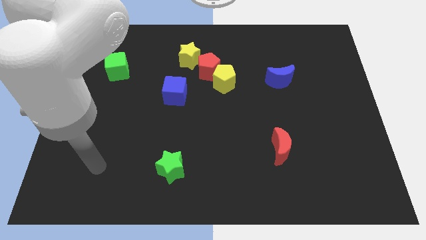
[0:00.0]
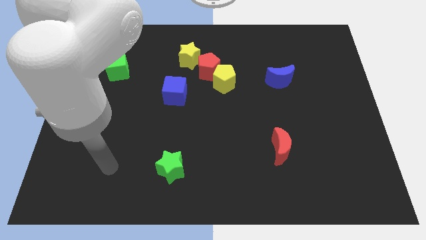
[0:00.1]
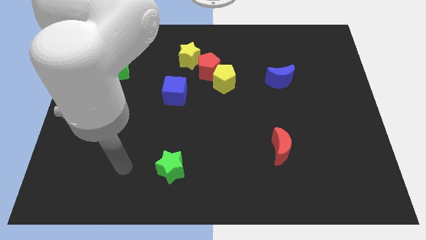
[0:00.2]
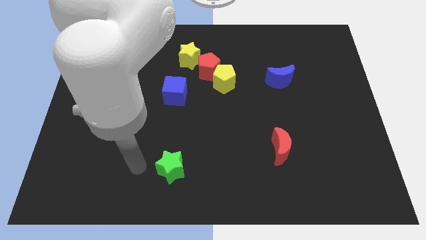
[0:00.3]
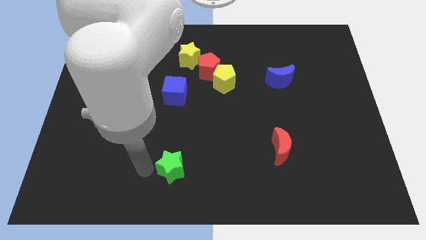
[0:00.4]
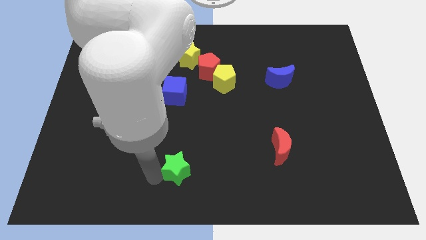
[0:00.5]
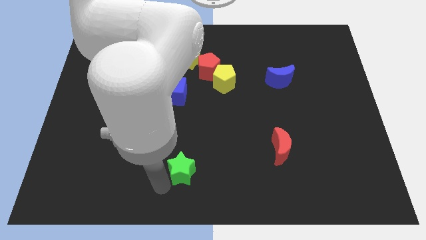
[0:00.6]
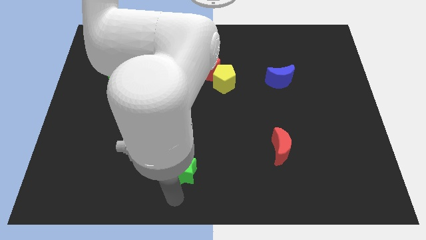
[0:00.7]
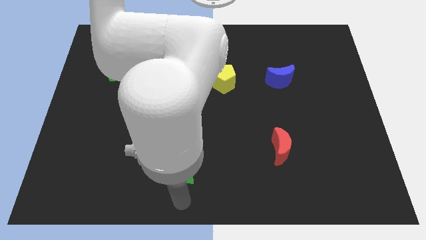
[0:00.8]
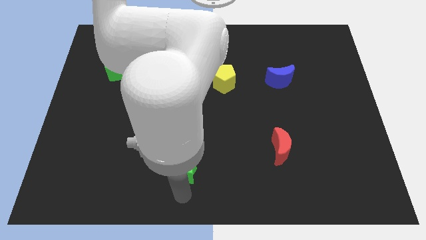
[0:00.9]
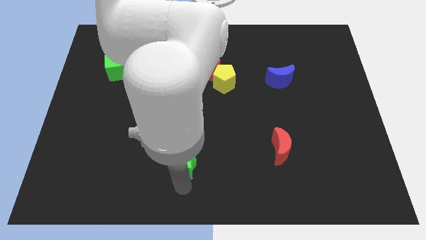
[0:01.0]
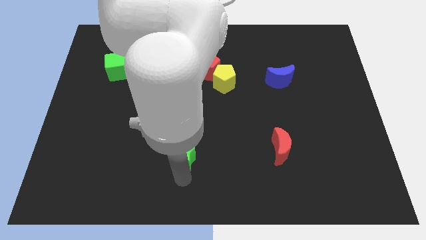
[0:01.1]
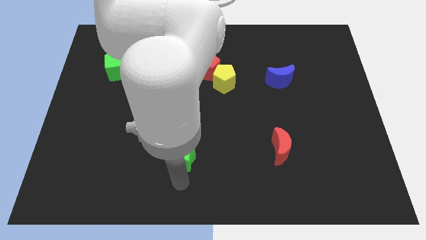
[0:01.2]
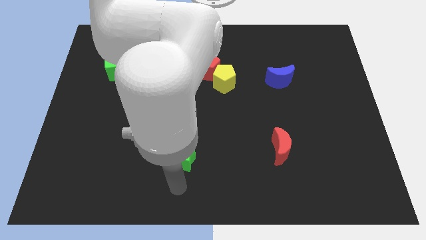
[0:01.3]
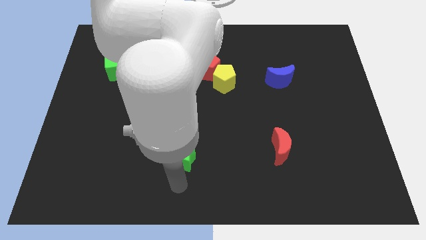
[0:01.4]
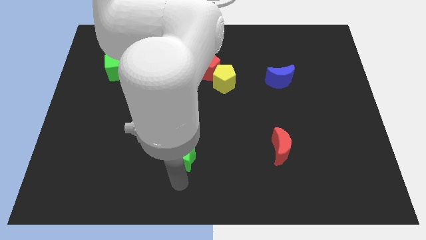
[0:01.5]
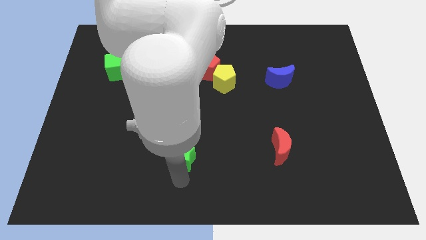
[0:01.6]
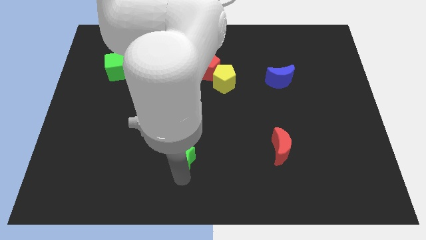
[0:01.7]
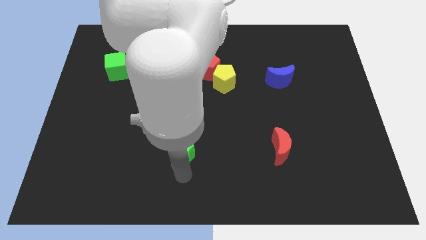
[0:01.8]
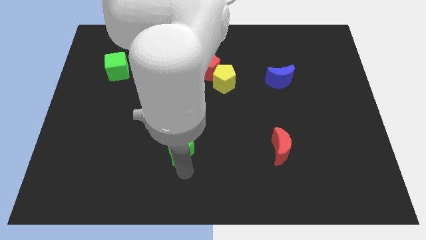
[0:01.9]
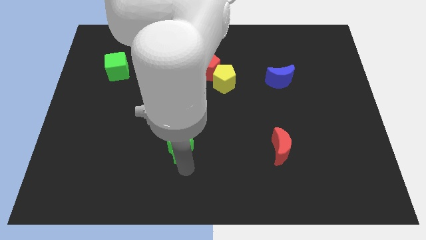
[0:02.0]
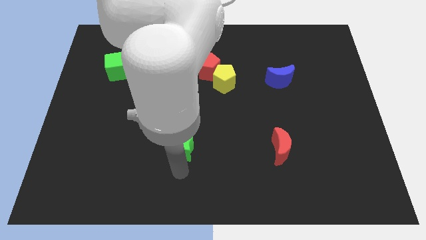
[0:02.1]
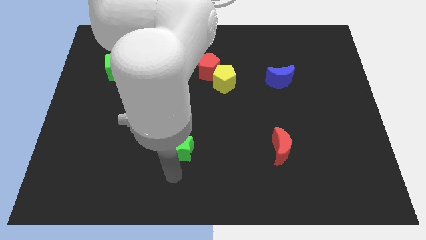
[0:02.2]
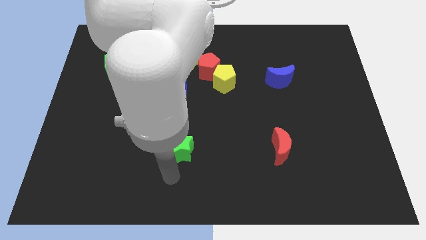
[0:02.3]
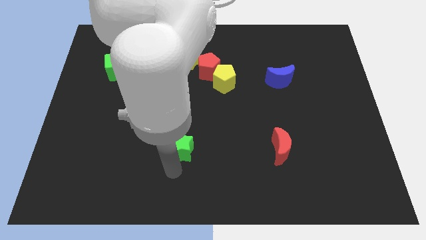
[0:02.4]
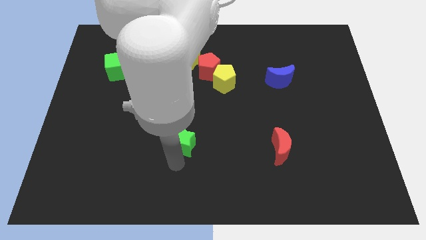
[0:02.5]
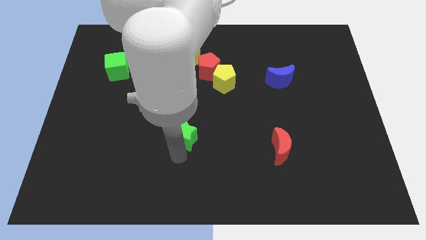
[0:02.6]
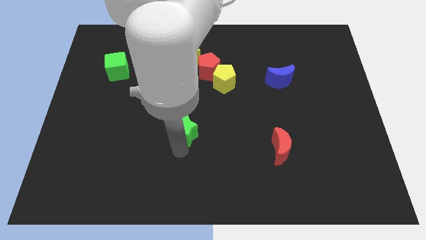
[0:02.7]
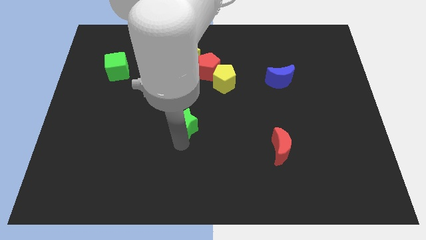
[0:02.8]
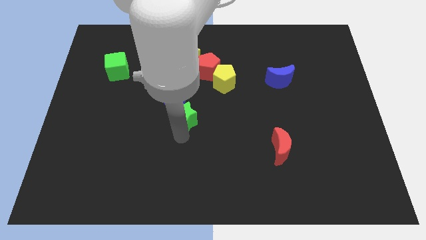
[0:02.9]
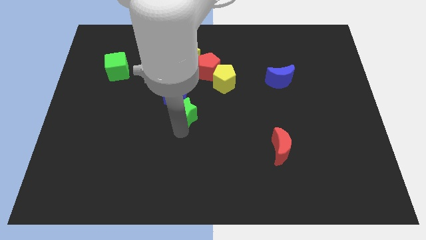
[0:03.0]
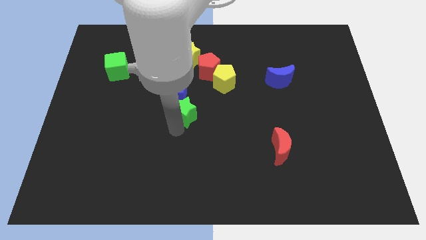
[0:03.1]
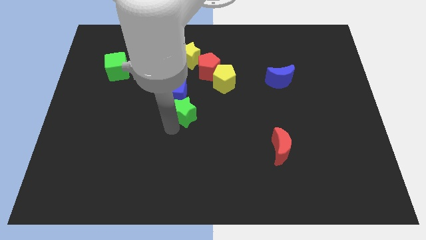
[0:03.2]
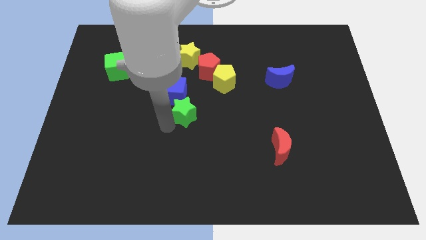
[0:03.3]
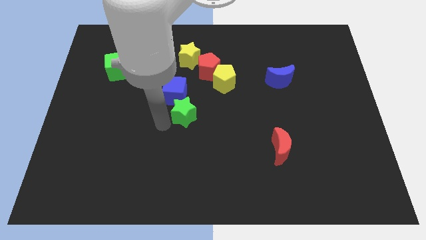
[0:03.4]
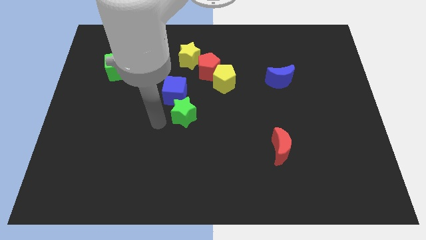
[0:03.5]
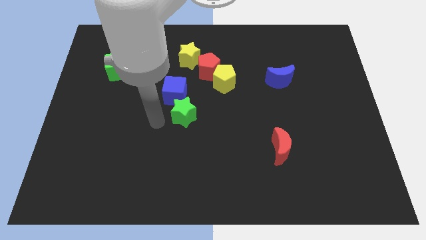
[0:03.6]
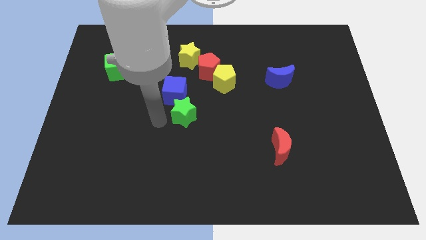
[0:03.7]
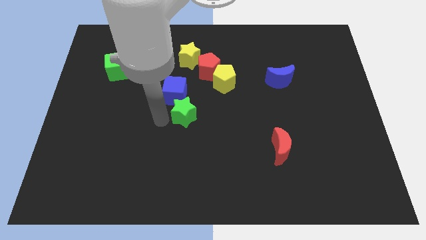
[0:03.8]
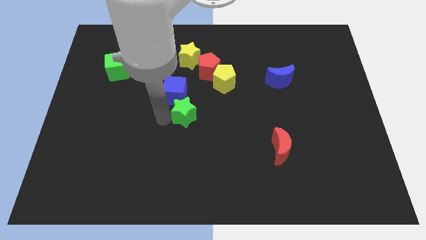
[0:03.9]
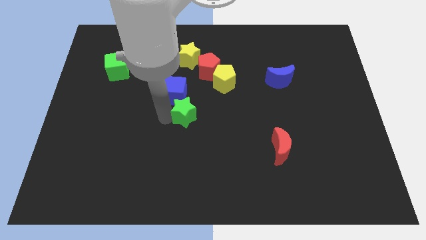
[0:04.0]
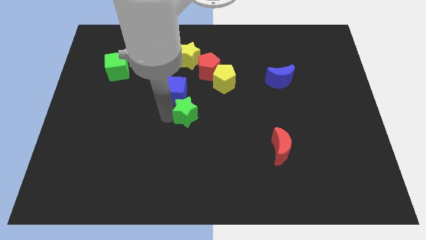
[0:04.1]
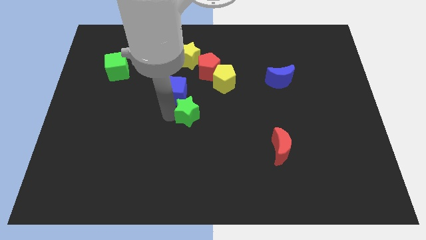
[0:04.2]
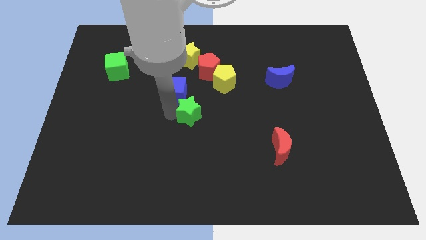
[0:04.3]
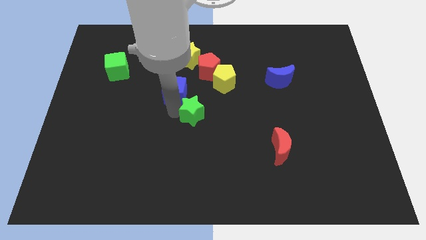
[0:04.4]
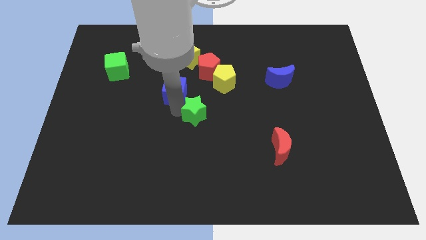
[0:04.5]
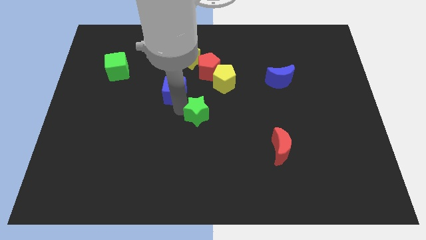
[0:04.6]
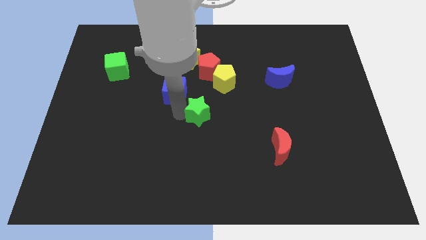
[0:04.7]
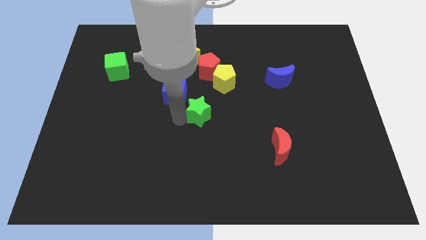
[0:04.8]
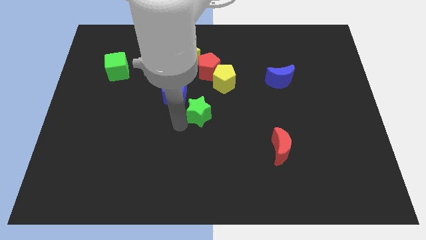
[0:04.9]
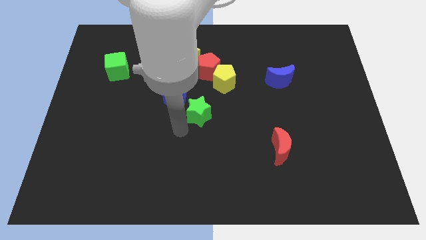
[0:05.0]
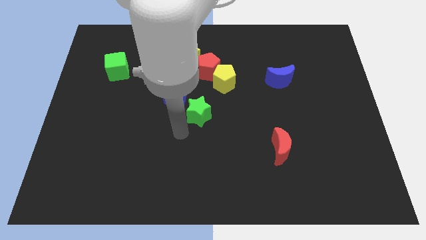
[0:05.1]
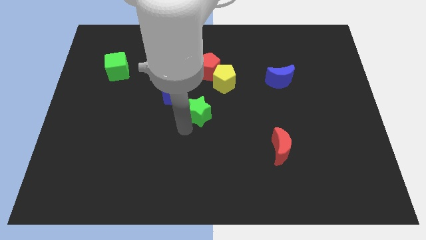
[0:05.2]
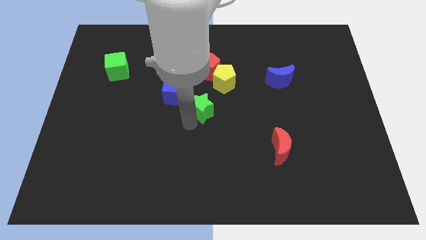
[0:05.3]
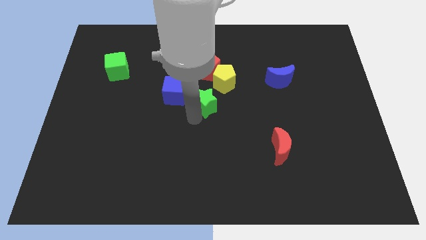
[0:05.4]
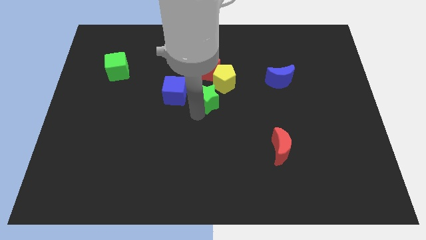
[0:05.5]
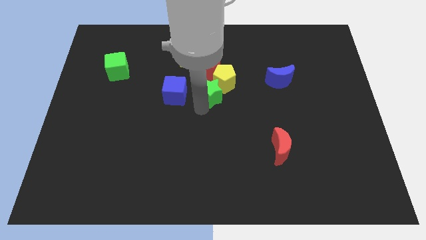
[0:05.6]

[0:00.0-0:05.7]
push the green star close to the yellow pentagon

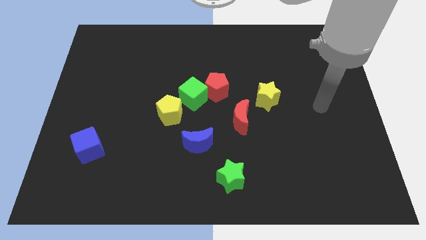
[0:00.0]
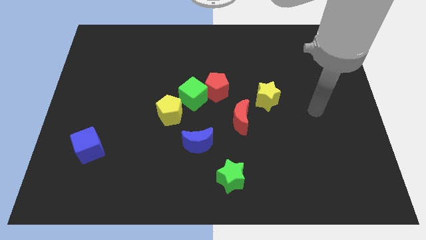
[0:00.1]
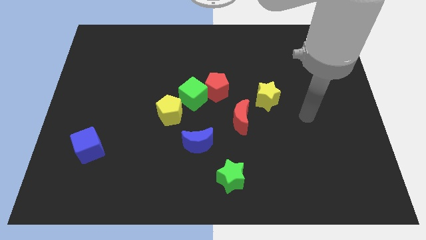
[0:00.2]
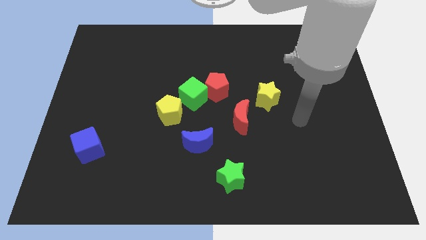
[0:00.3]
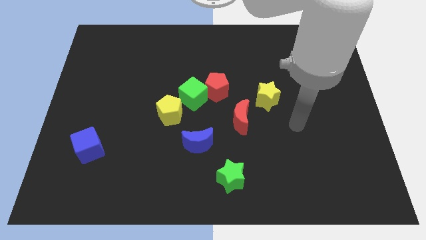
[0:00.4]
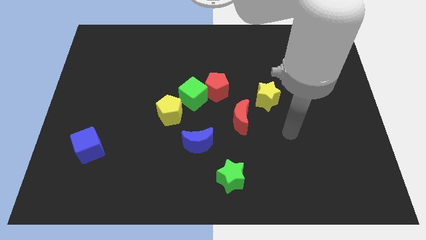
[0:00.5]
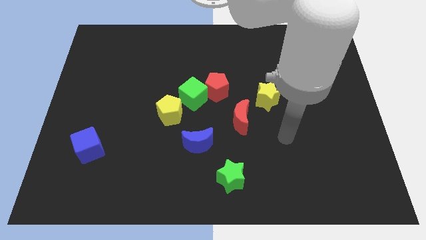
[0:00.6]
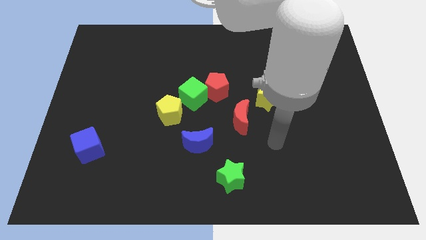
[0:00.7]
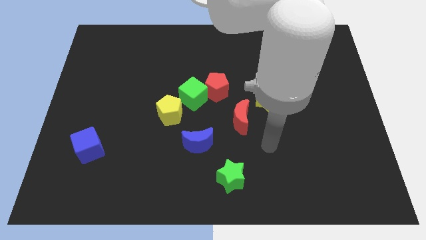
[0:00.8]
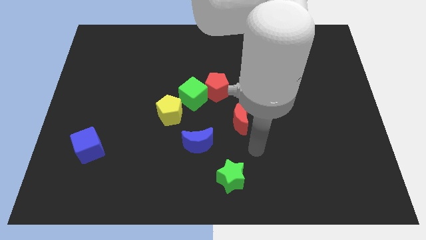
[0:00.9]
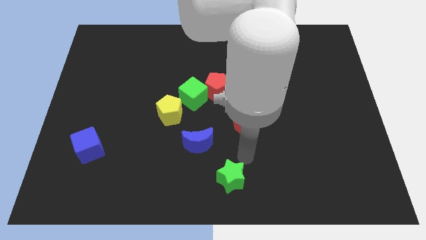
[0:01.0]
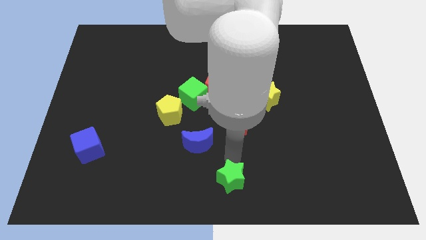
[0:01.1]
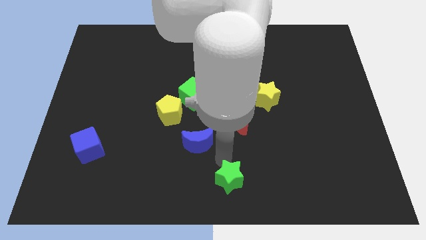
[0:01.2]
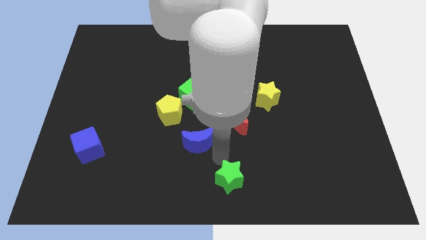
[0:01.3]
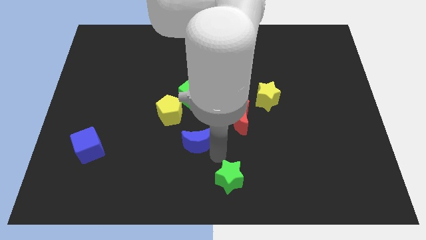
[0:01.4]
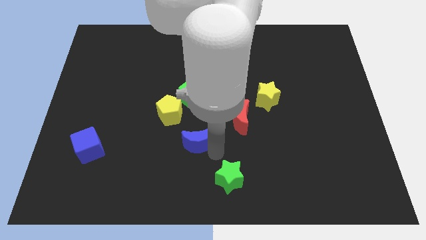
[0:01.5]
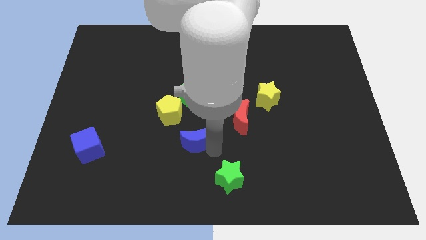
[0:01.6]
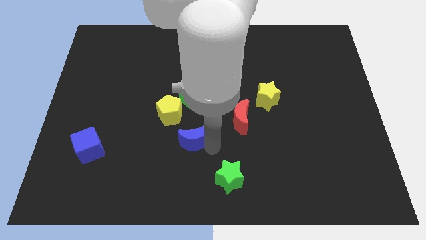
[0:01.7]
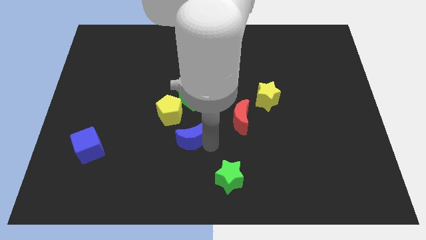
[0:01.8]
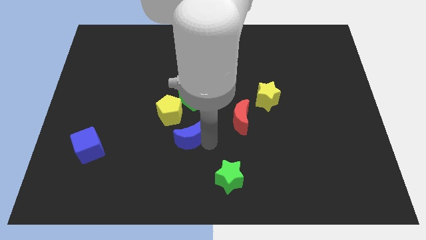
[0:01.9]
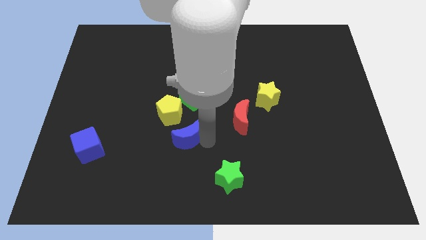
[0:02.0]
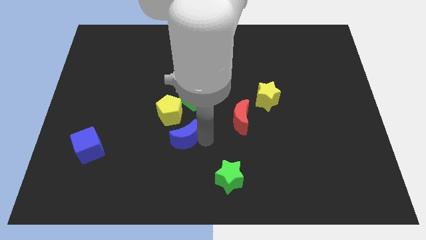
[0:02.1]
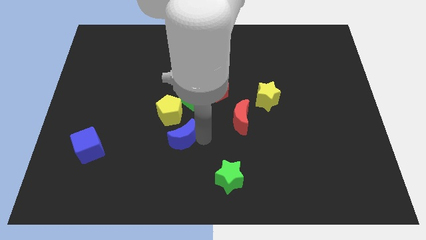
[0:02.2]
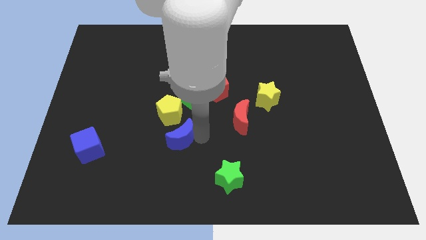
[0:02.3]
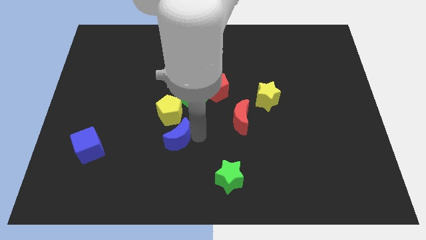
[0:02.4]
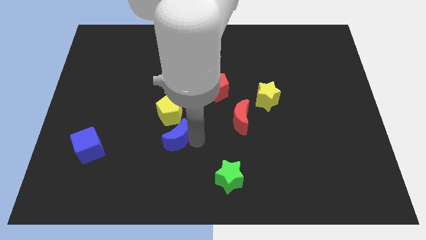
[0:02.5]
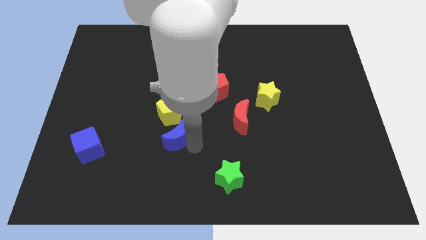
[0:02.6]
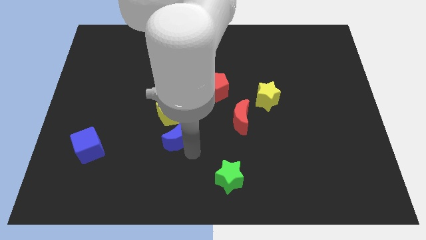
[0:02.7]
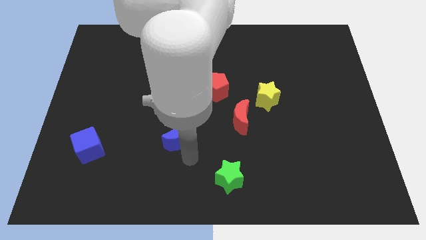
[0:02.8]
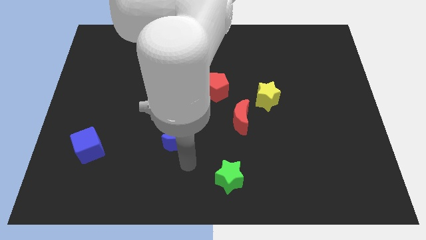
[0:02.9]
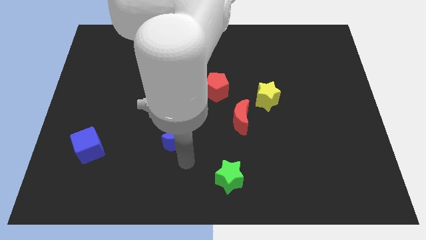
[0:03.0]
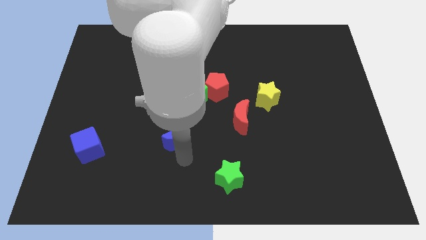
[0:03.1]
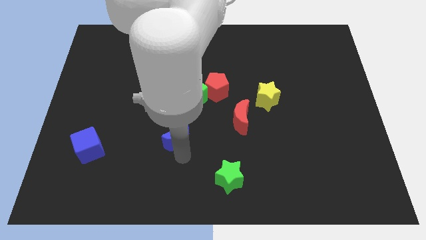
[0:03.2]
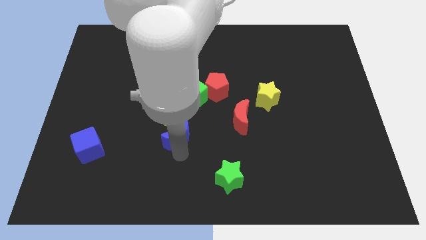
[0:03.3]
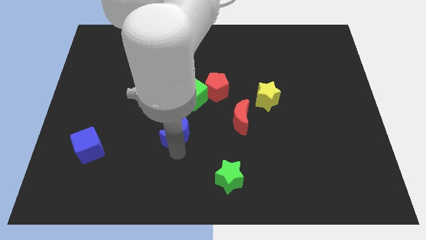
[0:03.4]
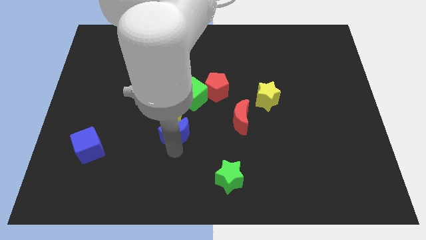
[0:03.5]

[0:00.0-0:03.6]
put the blue moon to the yellow pentagon
